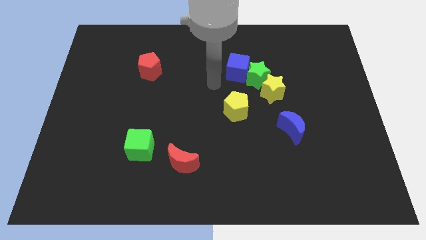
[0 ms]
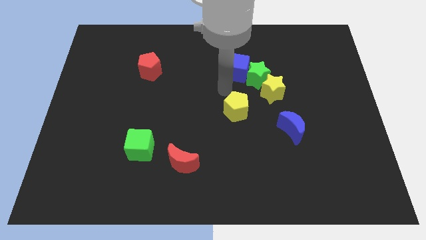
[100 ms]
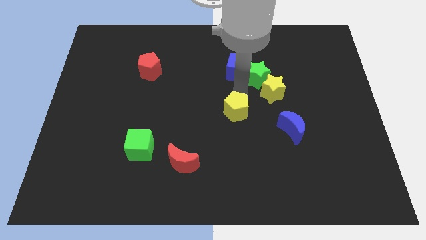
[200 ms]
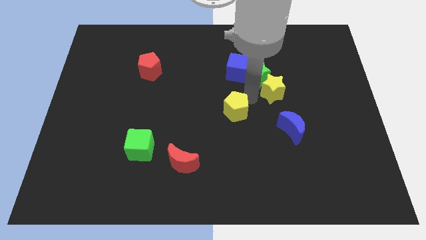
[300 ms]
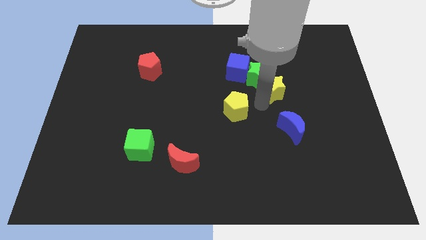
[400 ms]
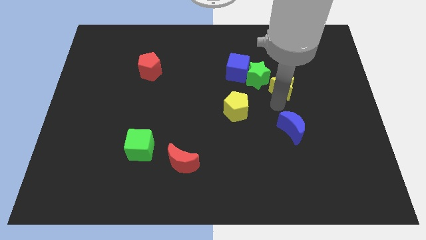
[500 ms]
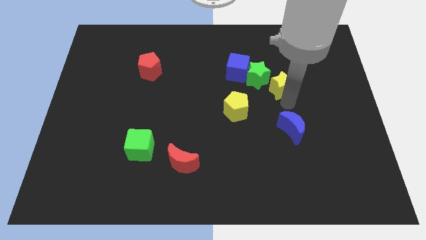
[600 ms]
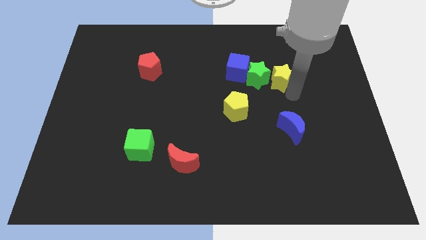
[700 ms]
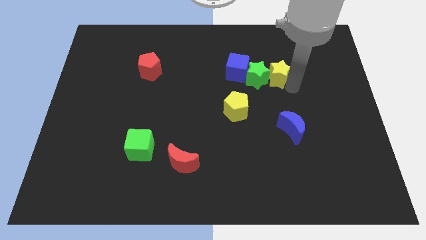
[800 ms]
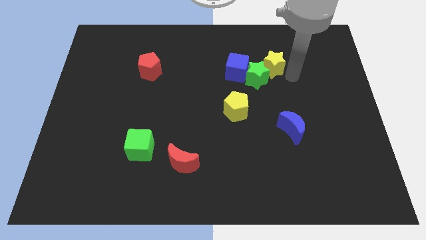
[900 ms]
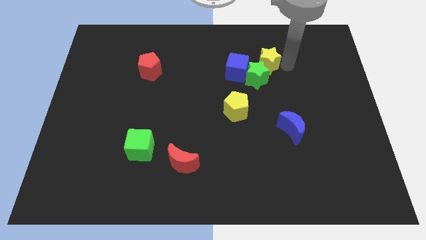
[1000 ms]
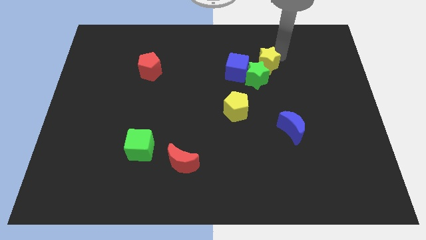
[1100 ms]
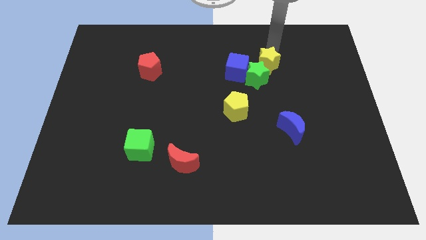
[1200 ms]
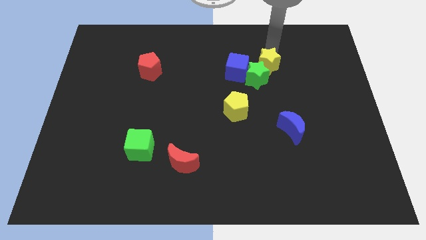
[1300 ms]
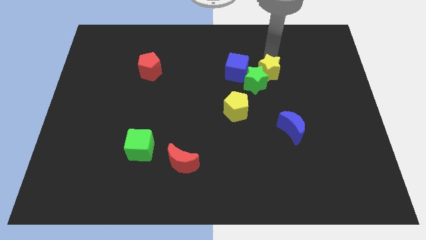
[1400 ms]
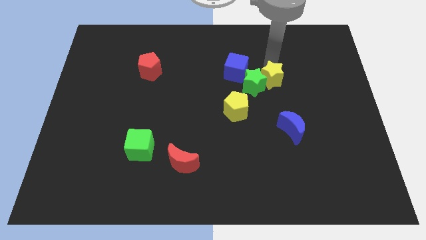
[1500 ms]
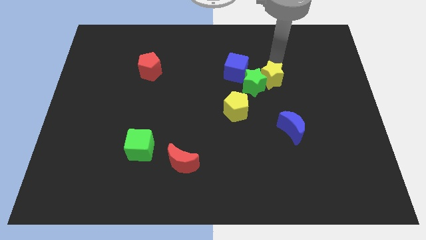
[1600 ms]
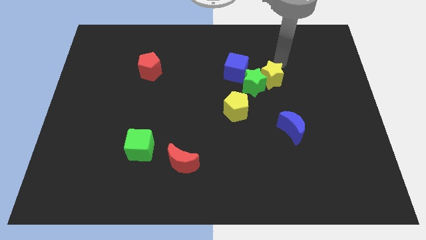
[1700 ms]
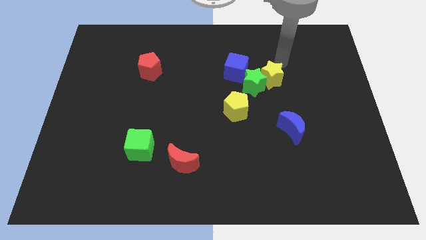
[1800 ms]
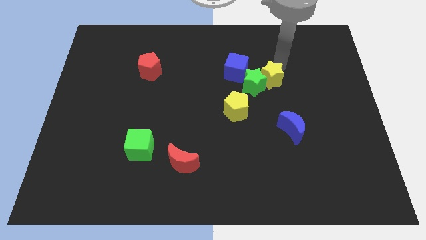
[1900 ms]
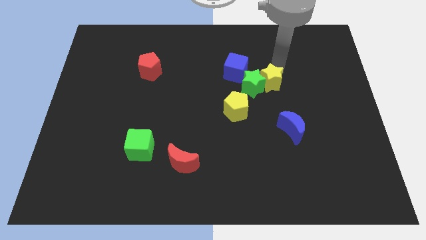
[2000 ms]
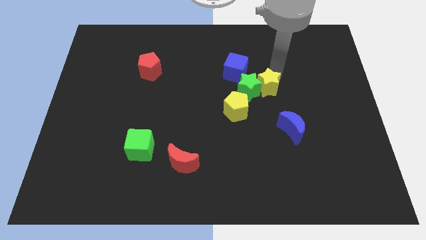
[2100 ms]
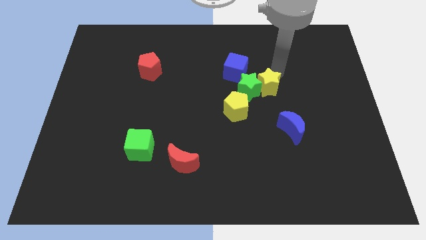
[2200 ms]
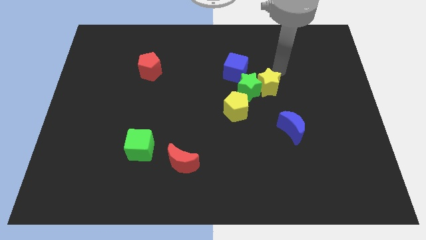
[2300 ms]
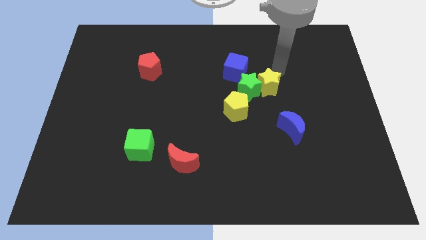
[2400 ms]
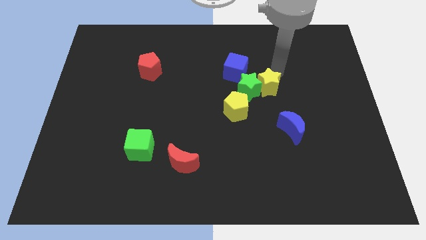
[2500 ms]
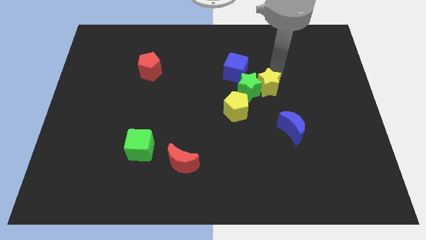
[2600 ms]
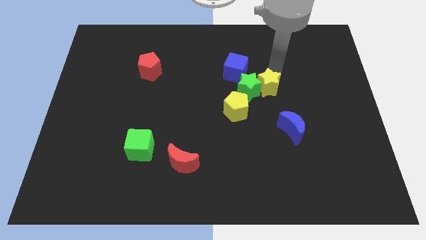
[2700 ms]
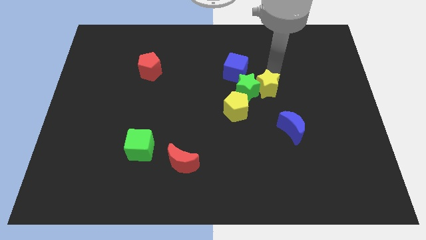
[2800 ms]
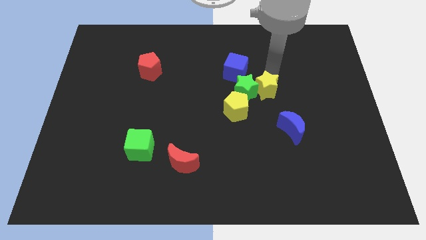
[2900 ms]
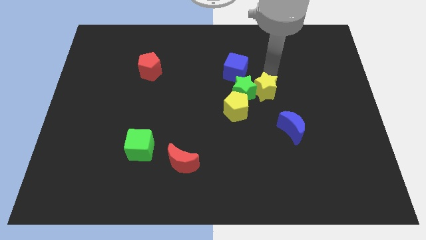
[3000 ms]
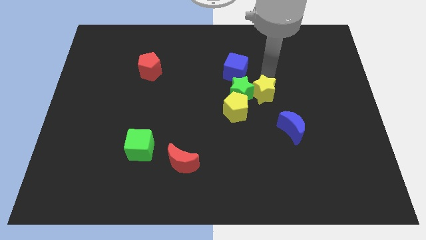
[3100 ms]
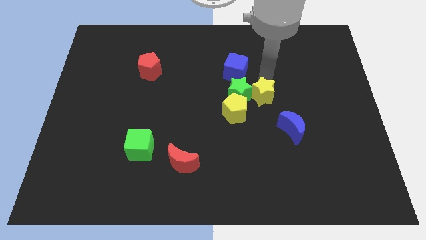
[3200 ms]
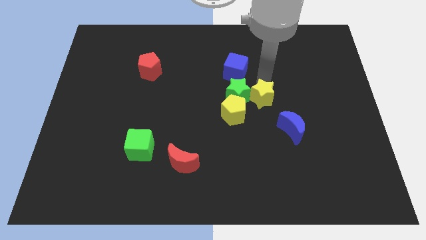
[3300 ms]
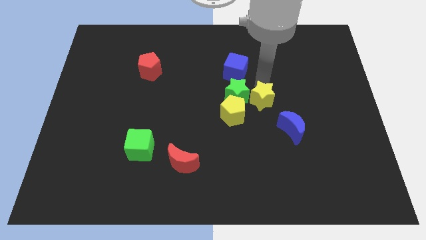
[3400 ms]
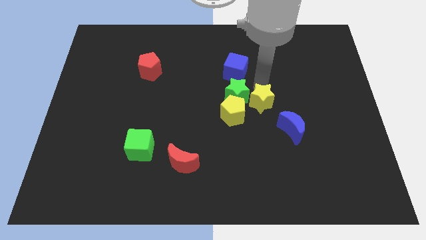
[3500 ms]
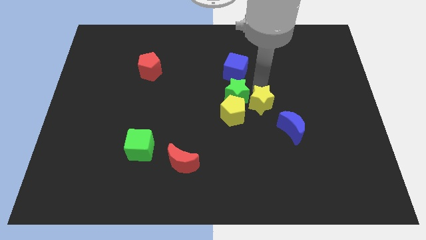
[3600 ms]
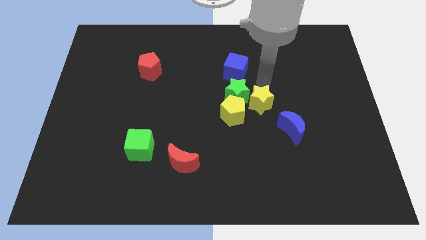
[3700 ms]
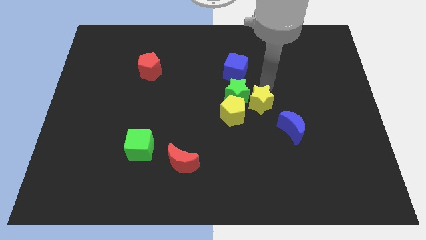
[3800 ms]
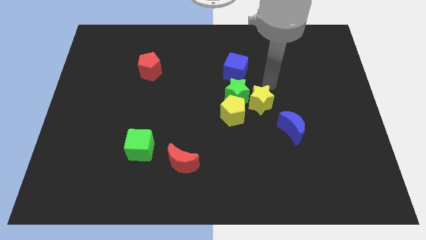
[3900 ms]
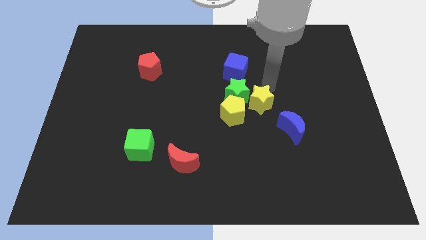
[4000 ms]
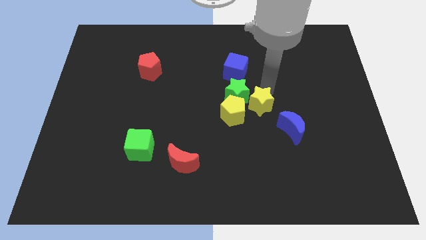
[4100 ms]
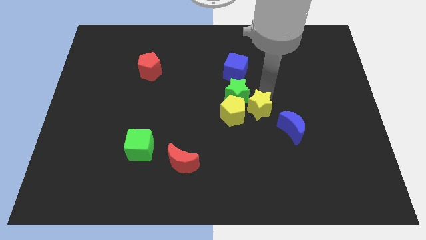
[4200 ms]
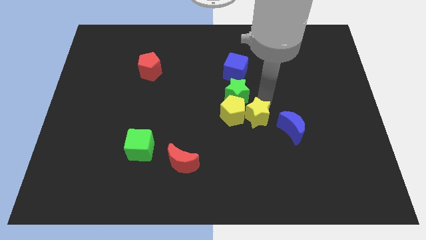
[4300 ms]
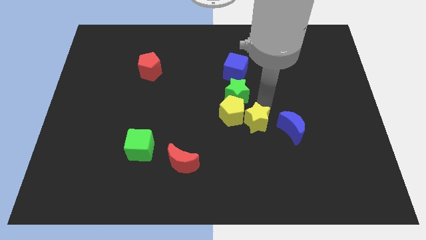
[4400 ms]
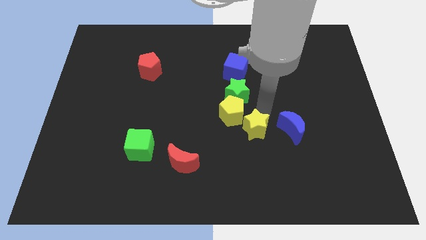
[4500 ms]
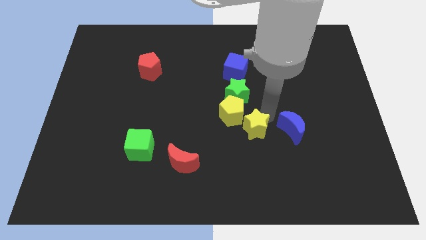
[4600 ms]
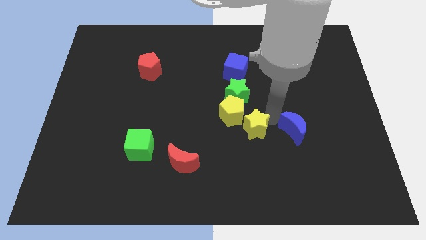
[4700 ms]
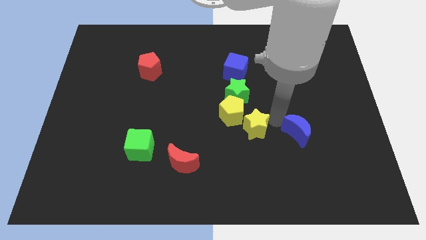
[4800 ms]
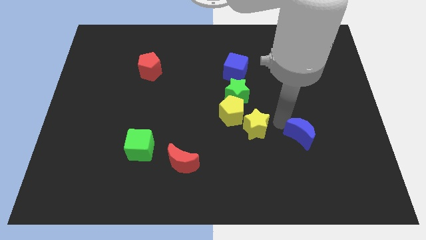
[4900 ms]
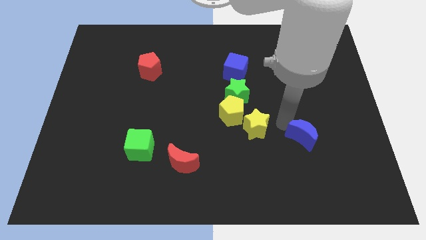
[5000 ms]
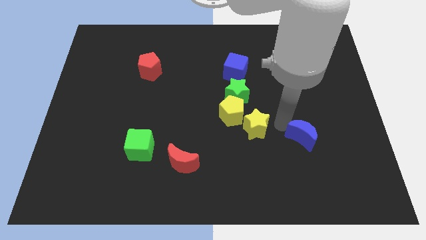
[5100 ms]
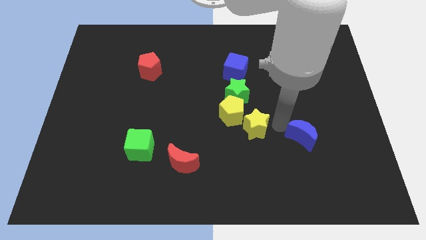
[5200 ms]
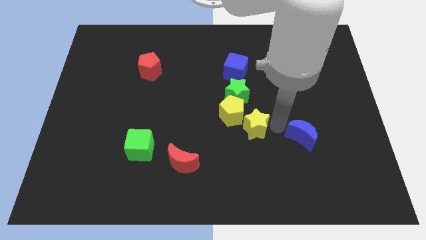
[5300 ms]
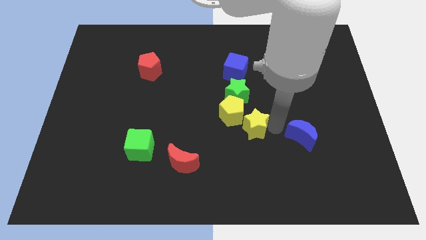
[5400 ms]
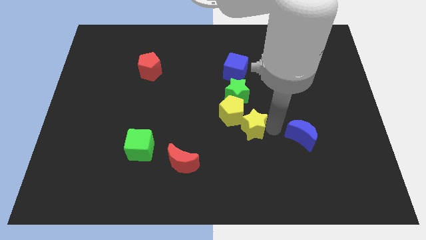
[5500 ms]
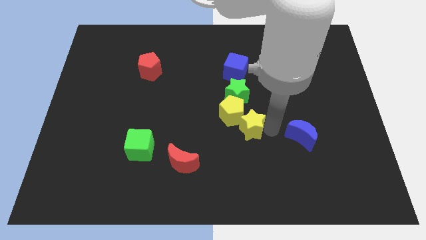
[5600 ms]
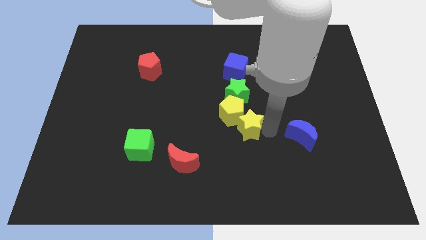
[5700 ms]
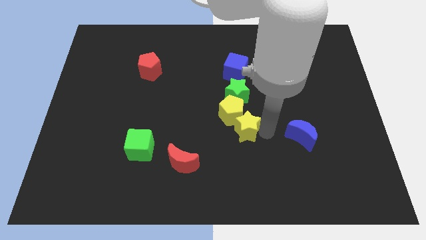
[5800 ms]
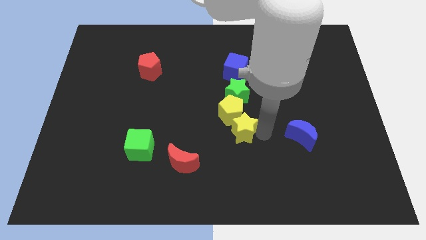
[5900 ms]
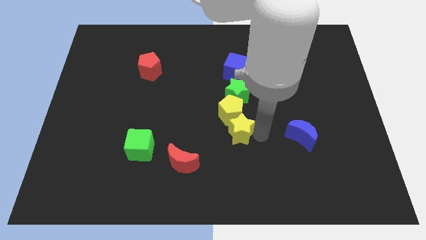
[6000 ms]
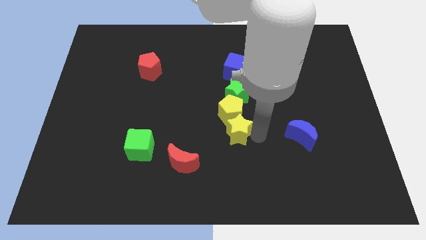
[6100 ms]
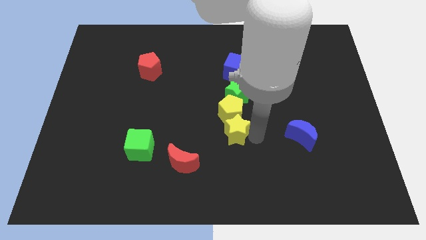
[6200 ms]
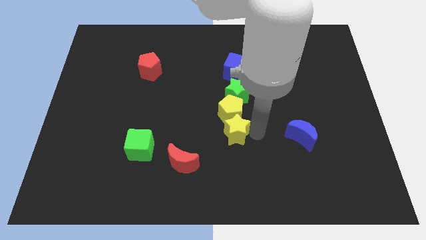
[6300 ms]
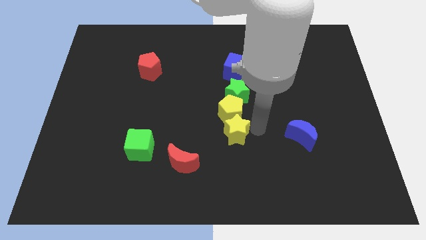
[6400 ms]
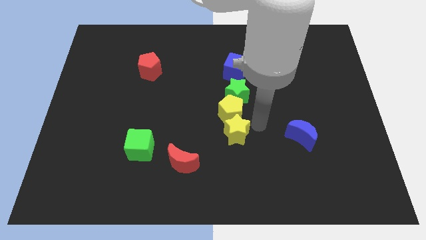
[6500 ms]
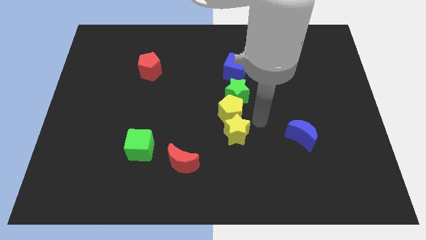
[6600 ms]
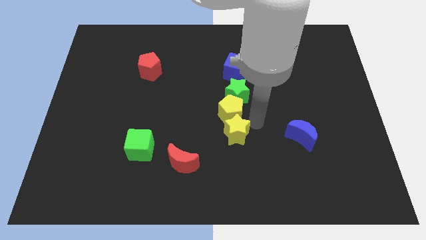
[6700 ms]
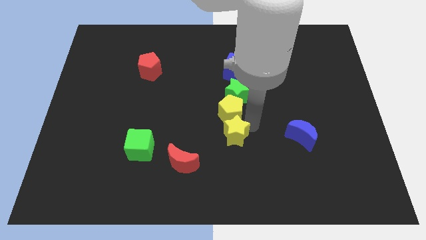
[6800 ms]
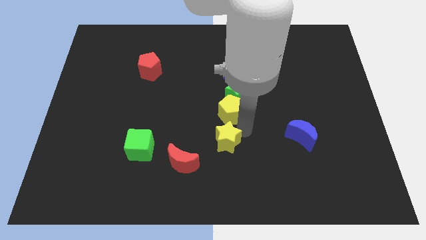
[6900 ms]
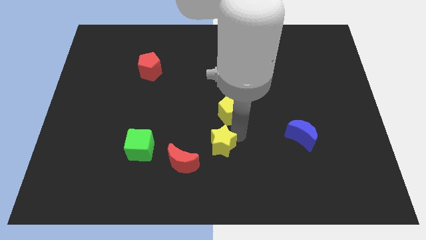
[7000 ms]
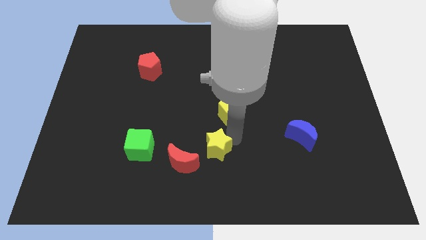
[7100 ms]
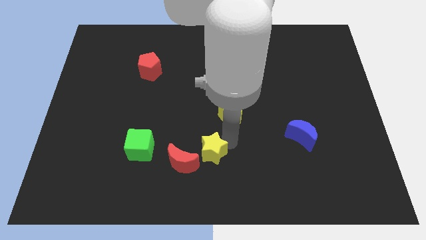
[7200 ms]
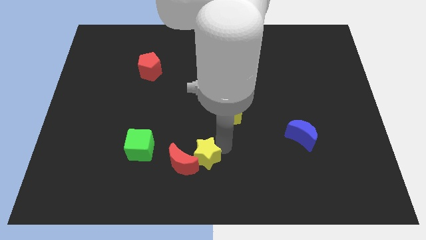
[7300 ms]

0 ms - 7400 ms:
put the yellow star close to the red moon
